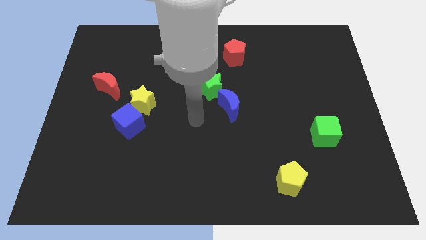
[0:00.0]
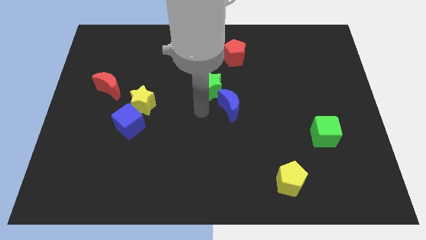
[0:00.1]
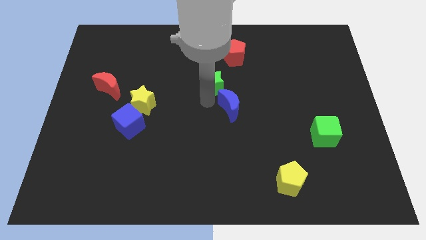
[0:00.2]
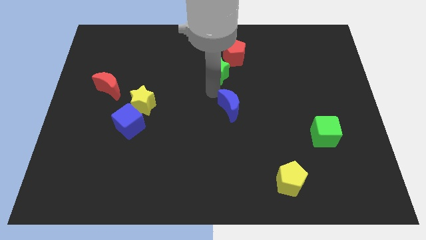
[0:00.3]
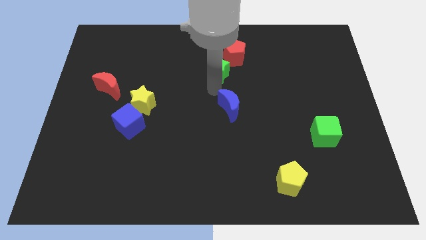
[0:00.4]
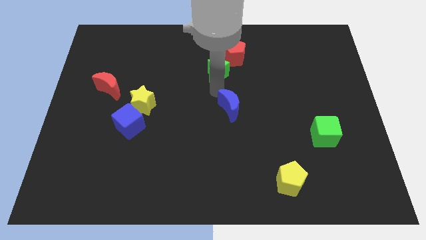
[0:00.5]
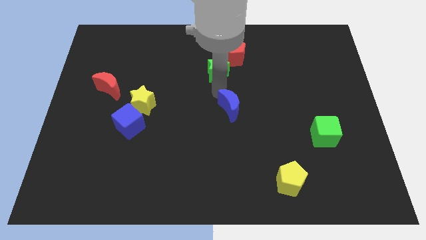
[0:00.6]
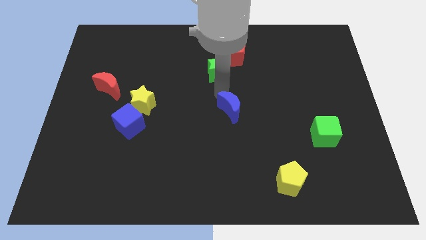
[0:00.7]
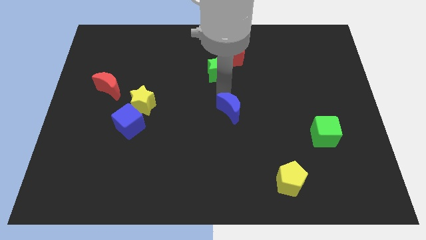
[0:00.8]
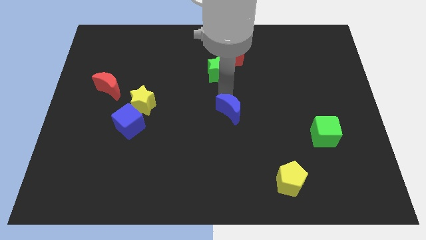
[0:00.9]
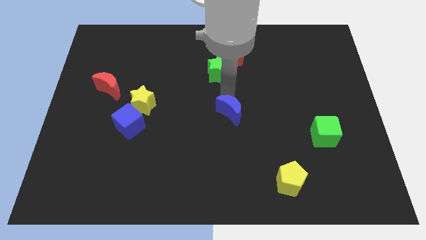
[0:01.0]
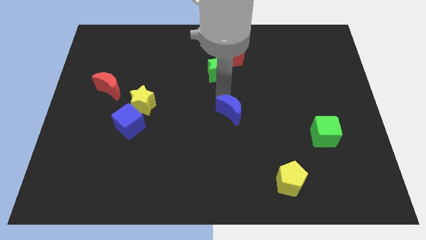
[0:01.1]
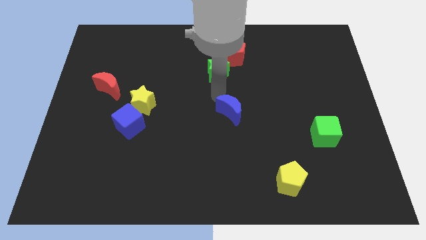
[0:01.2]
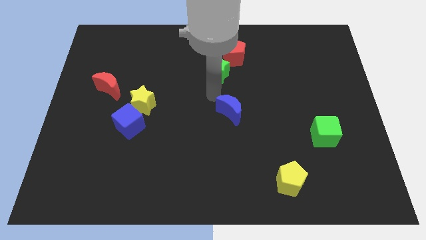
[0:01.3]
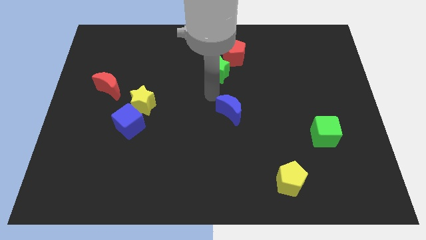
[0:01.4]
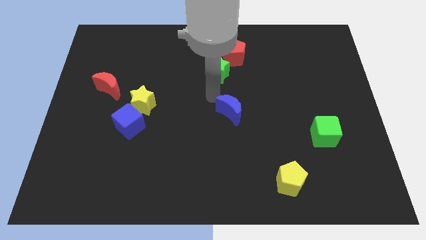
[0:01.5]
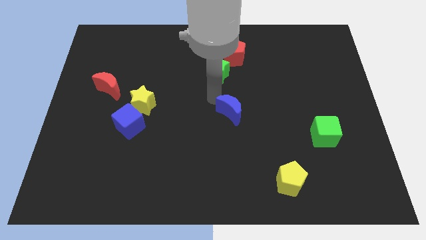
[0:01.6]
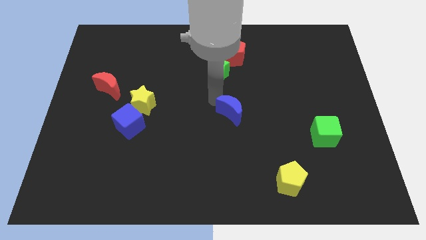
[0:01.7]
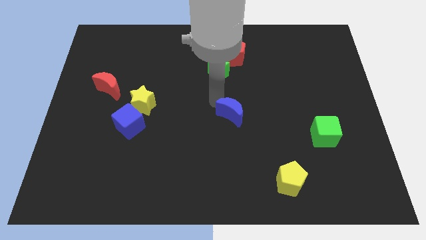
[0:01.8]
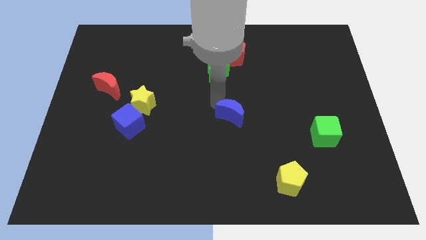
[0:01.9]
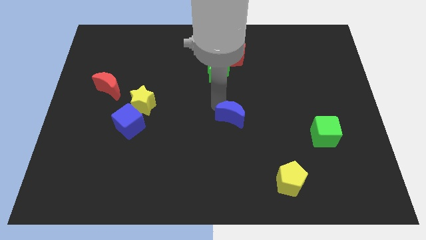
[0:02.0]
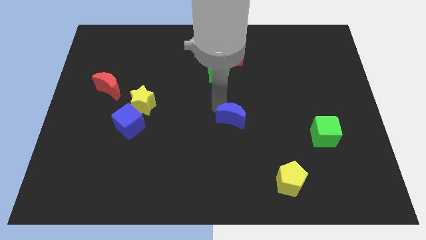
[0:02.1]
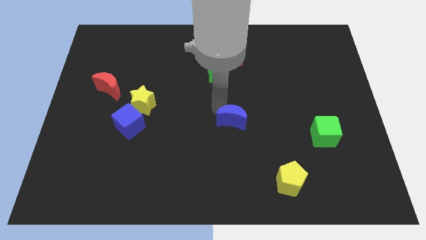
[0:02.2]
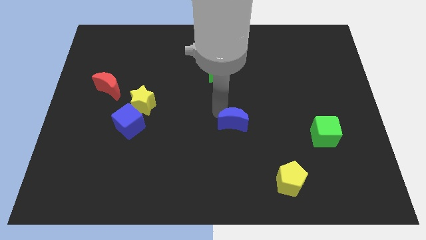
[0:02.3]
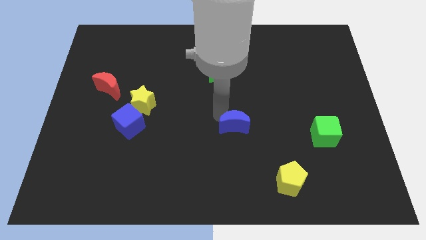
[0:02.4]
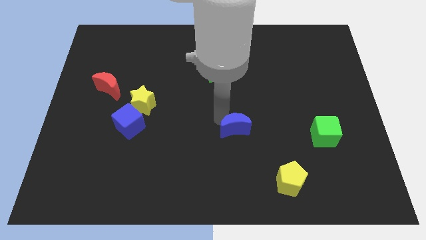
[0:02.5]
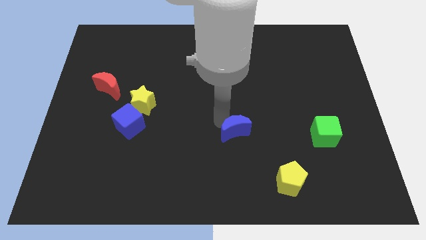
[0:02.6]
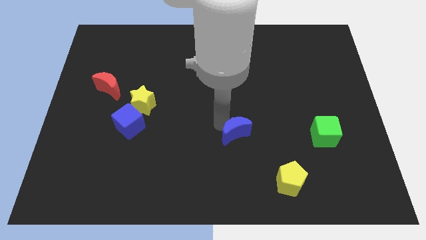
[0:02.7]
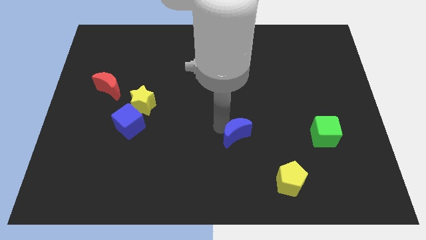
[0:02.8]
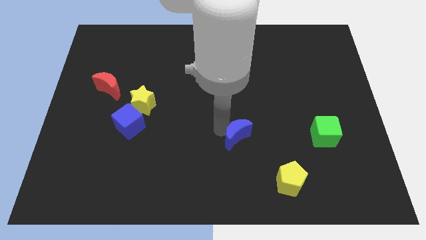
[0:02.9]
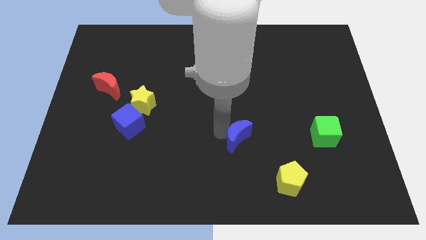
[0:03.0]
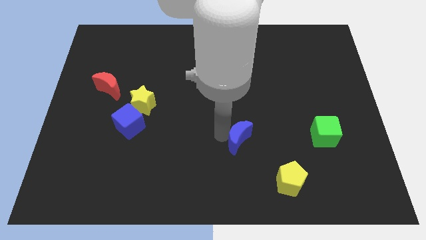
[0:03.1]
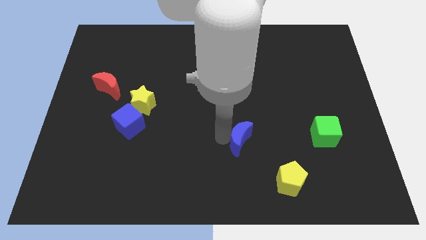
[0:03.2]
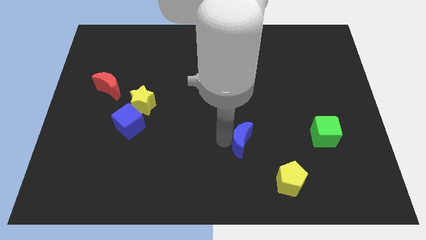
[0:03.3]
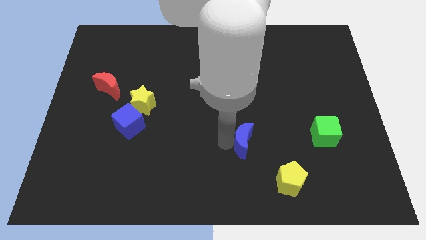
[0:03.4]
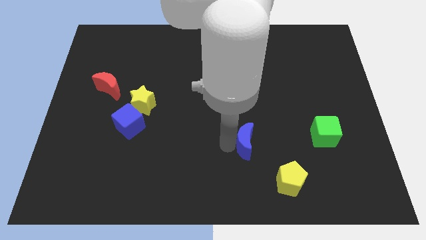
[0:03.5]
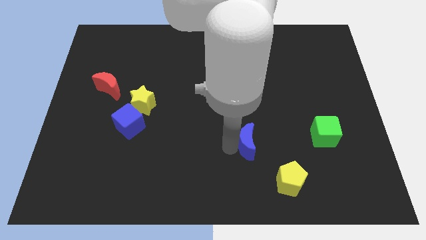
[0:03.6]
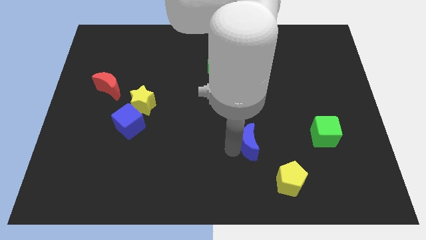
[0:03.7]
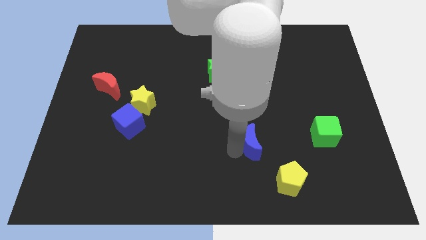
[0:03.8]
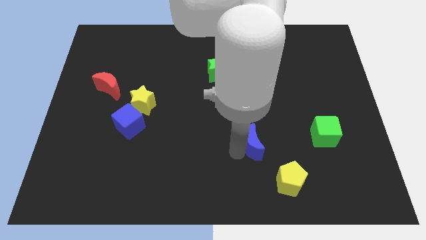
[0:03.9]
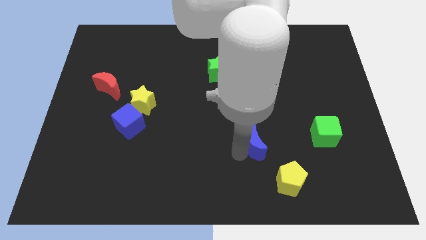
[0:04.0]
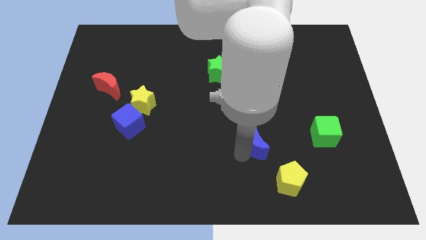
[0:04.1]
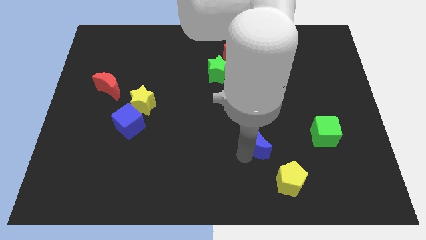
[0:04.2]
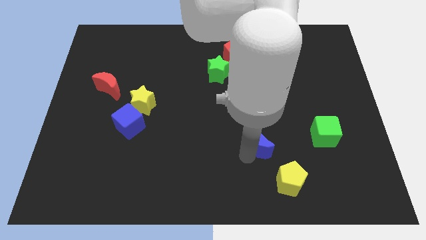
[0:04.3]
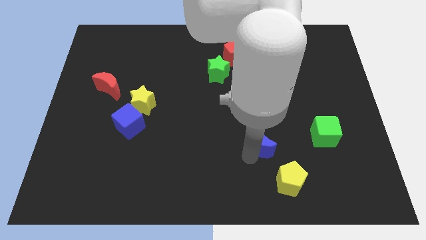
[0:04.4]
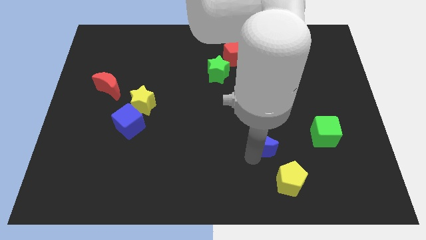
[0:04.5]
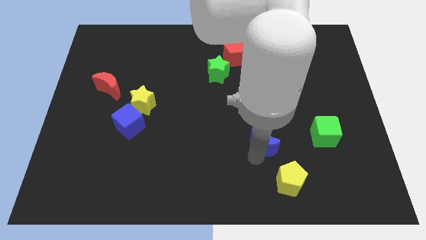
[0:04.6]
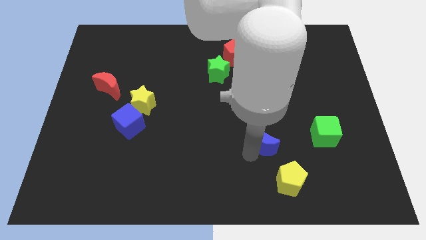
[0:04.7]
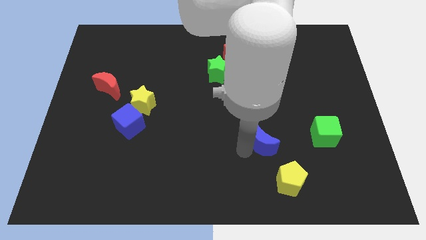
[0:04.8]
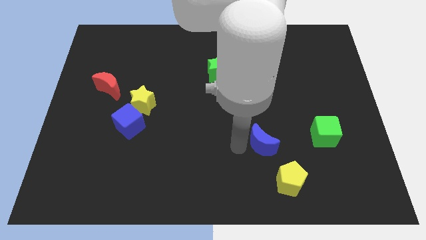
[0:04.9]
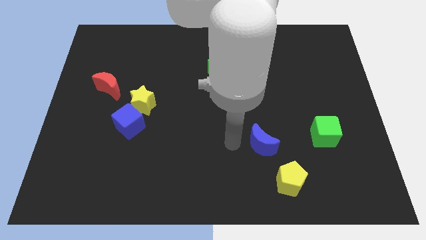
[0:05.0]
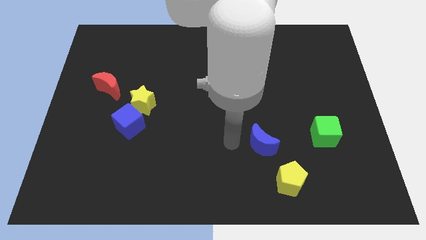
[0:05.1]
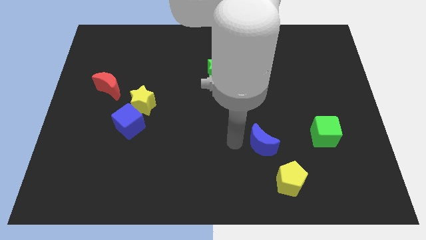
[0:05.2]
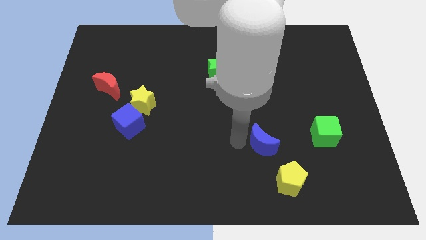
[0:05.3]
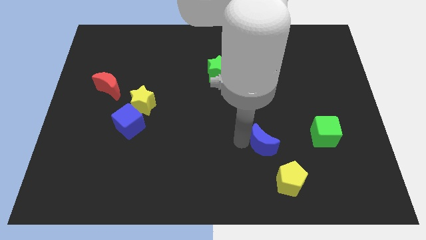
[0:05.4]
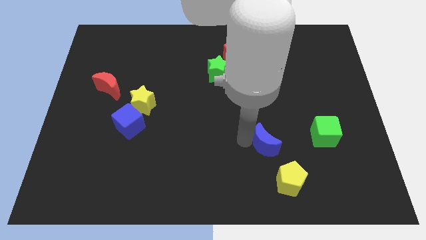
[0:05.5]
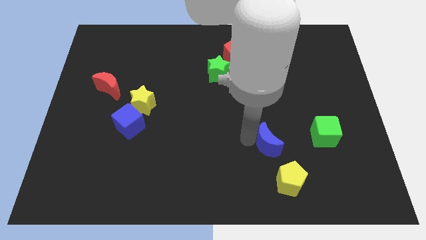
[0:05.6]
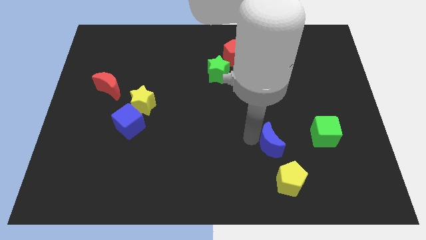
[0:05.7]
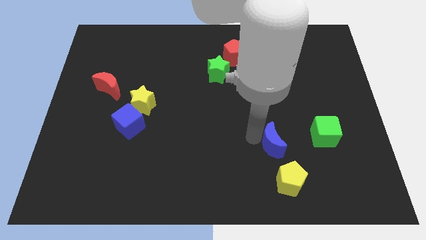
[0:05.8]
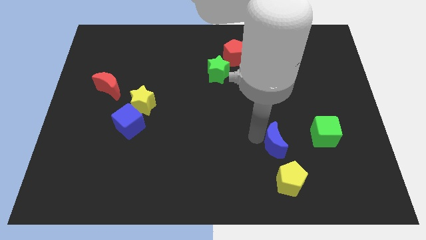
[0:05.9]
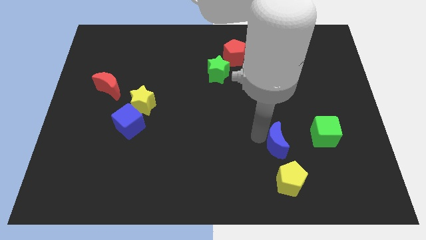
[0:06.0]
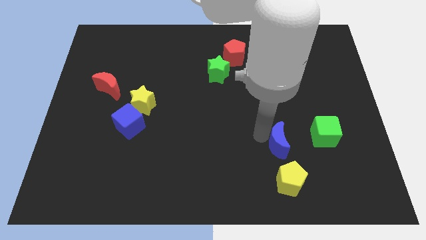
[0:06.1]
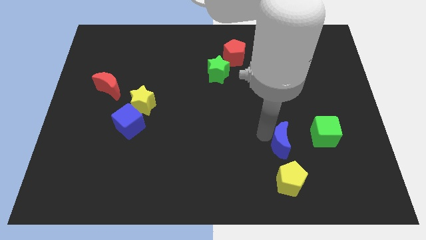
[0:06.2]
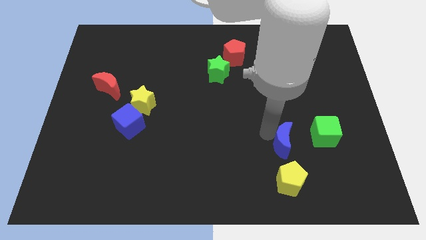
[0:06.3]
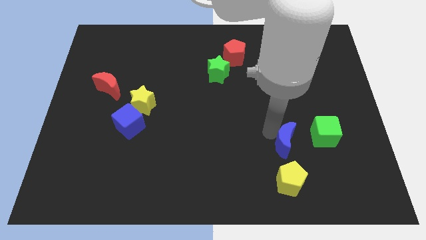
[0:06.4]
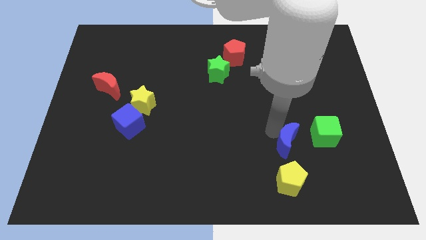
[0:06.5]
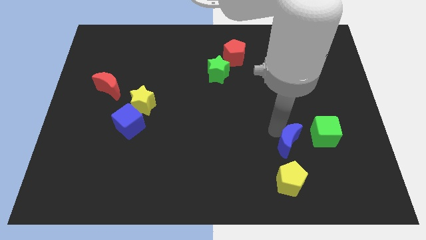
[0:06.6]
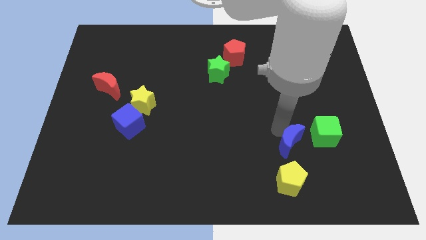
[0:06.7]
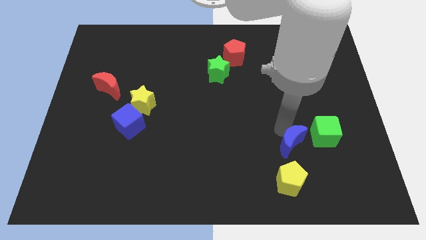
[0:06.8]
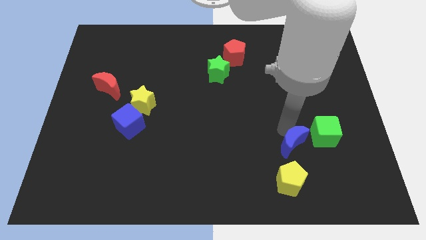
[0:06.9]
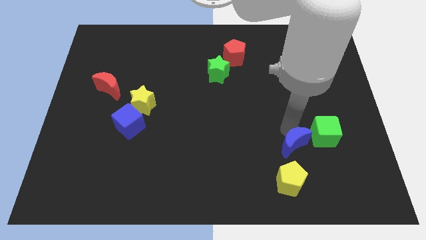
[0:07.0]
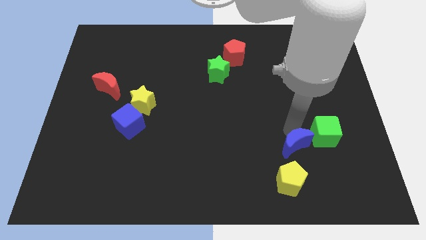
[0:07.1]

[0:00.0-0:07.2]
put the blue moon to the top right side of the yellow pentagon

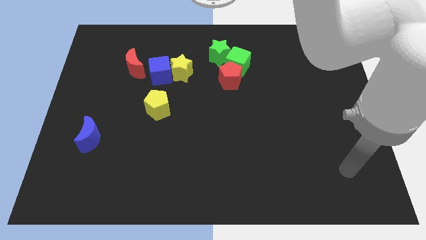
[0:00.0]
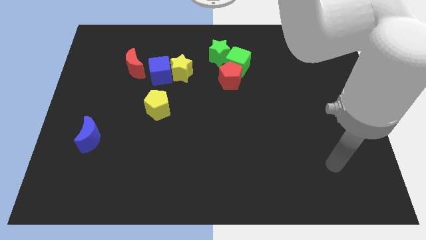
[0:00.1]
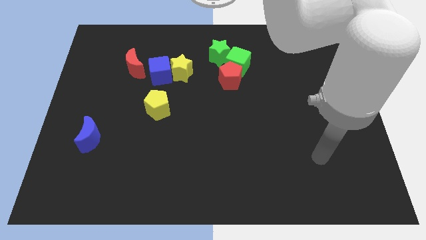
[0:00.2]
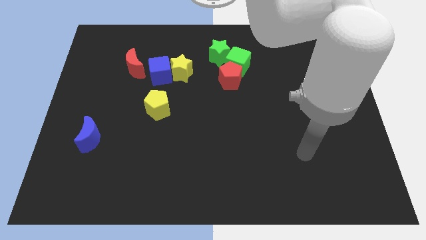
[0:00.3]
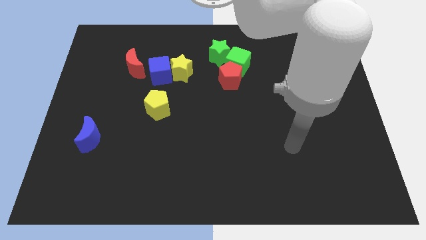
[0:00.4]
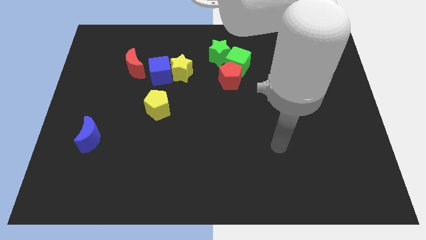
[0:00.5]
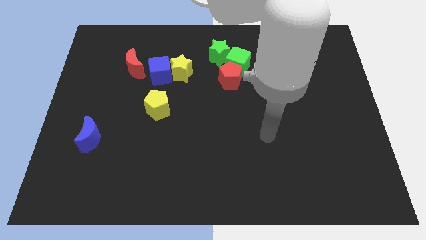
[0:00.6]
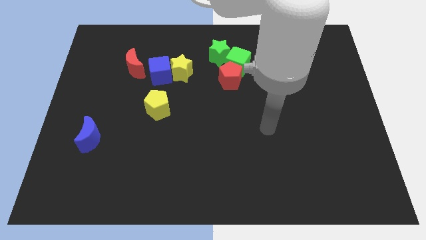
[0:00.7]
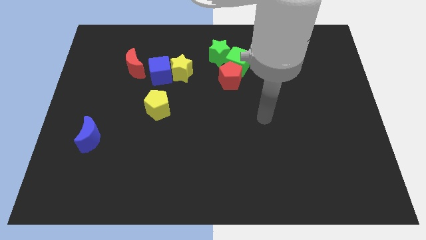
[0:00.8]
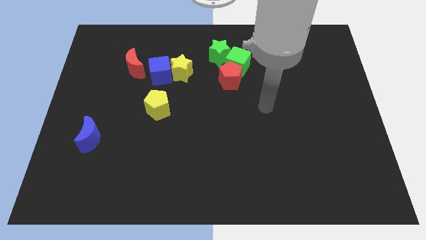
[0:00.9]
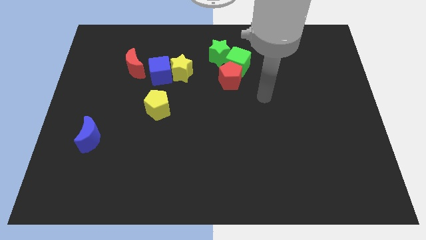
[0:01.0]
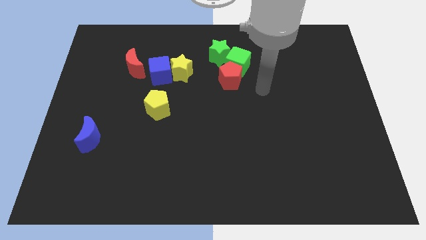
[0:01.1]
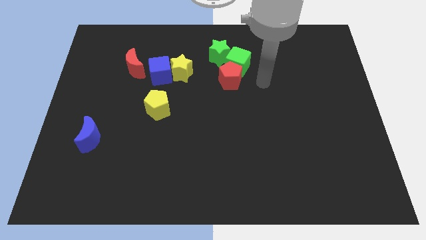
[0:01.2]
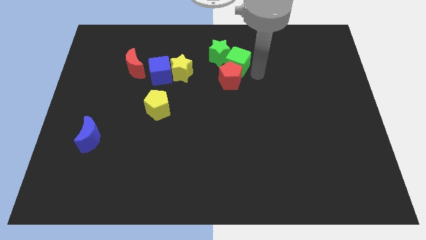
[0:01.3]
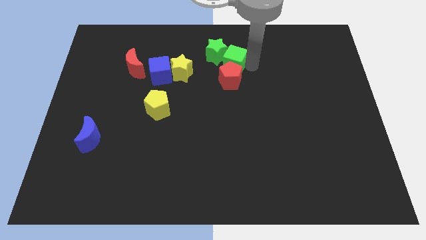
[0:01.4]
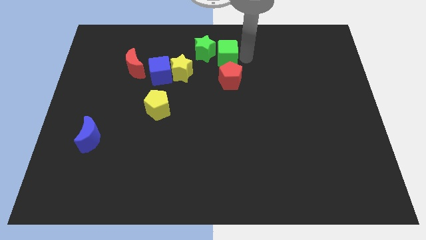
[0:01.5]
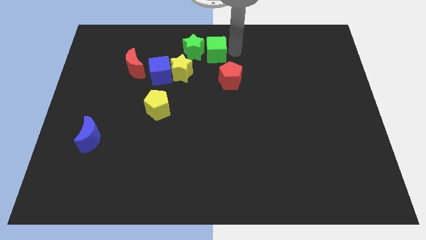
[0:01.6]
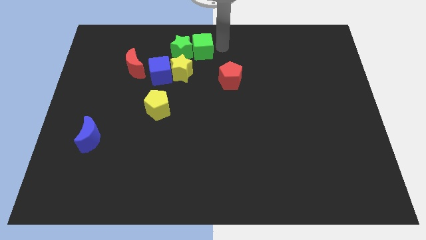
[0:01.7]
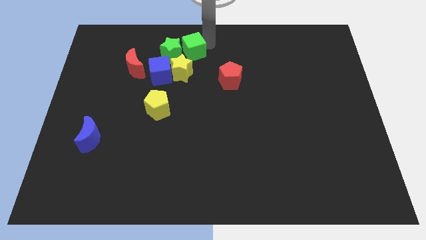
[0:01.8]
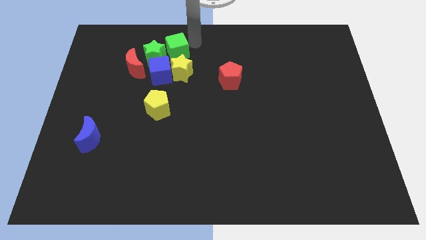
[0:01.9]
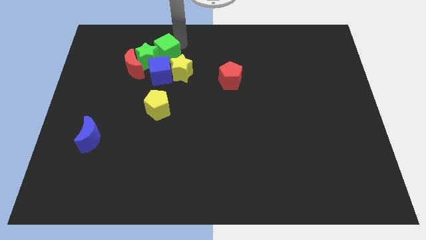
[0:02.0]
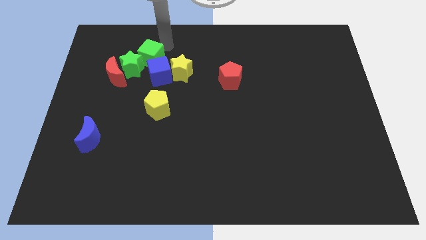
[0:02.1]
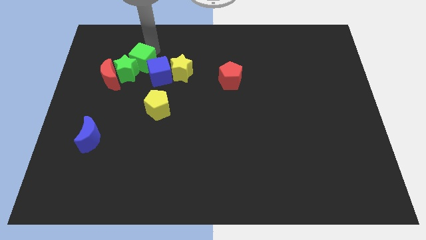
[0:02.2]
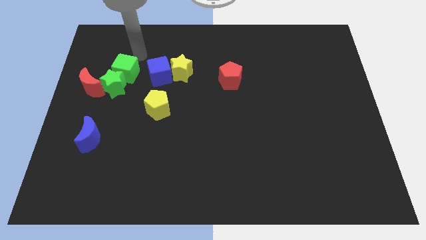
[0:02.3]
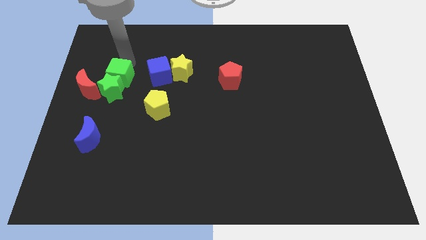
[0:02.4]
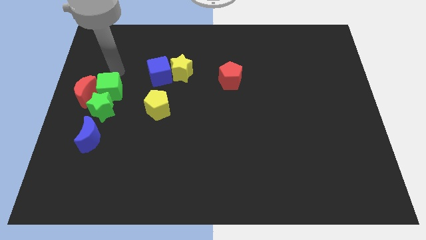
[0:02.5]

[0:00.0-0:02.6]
push the green star to the top right of the blue moon
